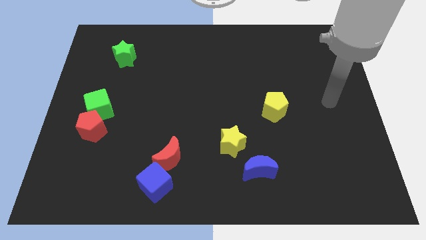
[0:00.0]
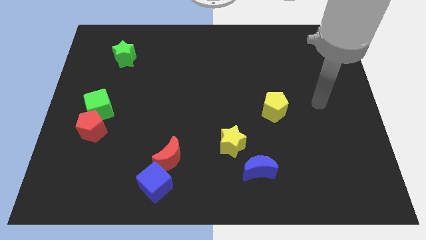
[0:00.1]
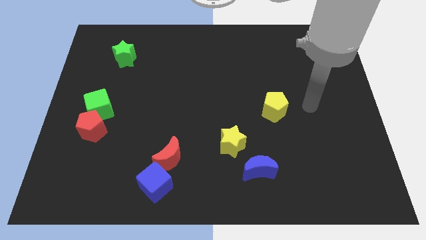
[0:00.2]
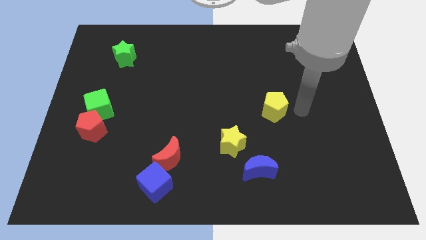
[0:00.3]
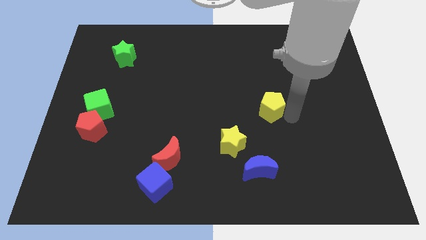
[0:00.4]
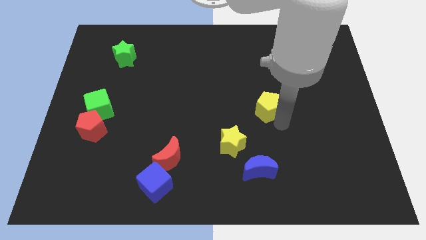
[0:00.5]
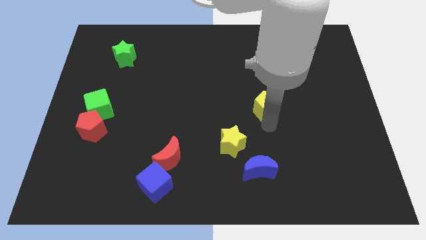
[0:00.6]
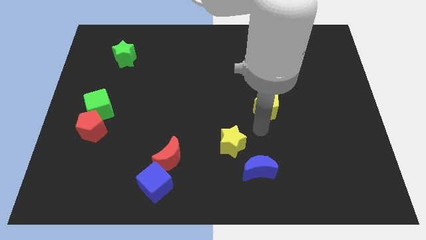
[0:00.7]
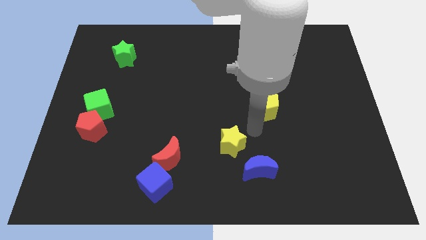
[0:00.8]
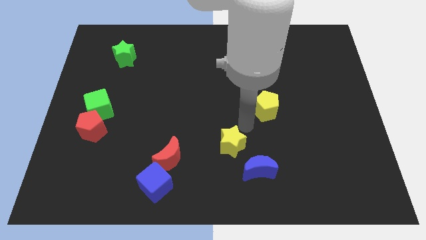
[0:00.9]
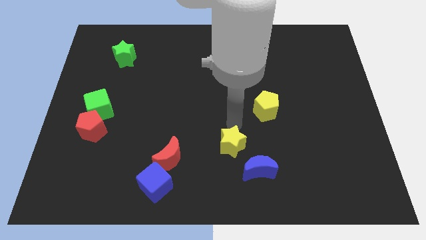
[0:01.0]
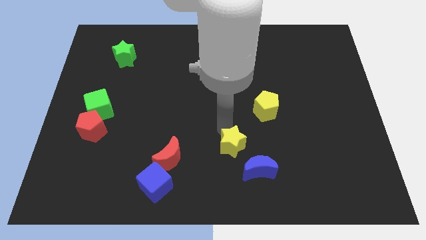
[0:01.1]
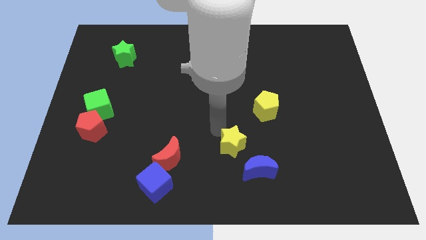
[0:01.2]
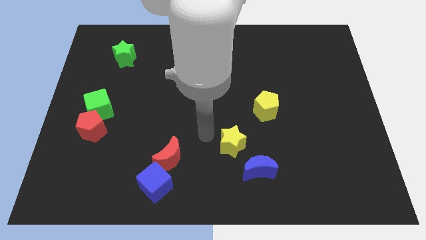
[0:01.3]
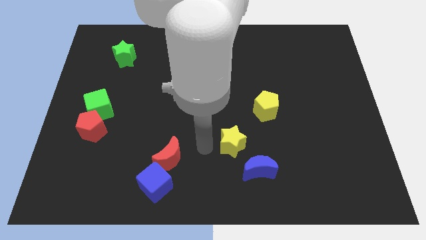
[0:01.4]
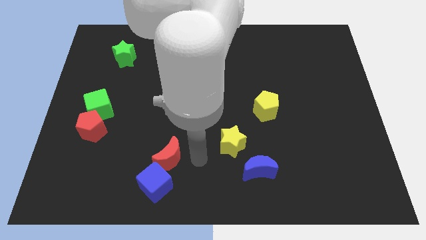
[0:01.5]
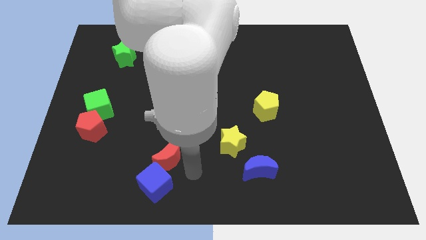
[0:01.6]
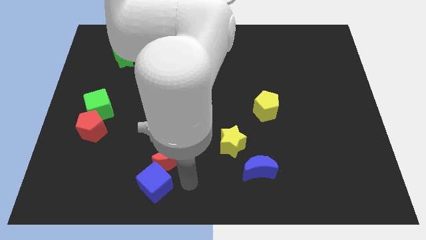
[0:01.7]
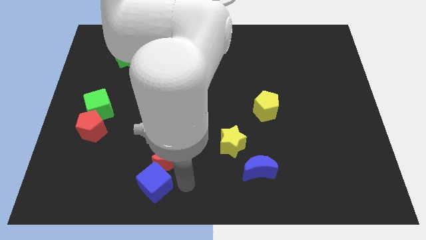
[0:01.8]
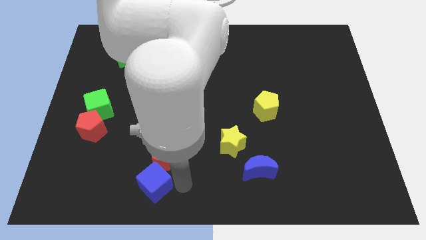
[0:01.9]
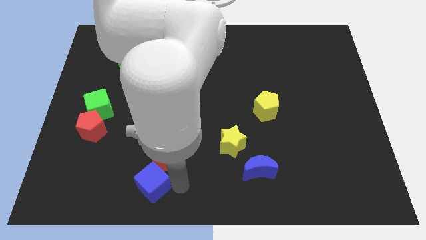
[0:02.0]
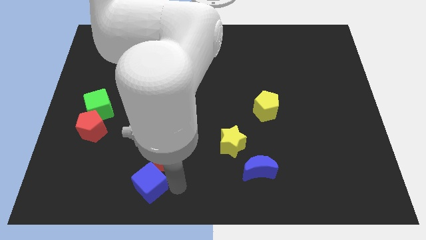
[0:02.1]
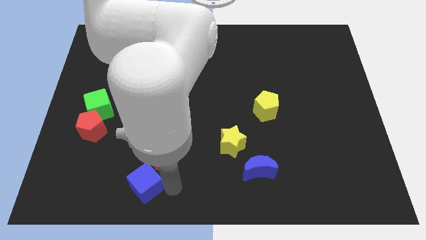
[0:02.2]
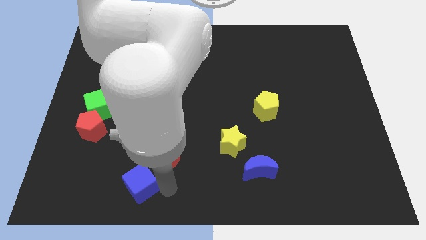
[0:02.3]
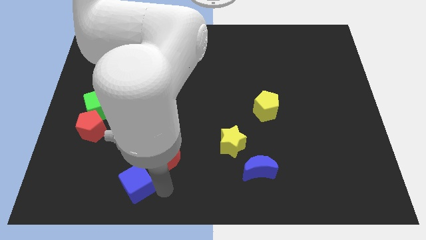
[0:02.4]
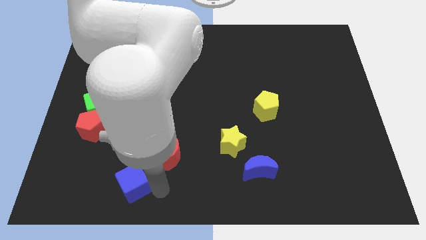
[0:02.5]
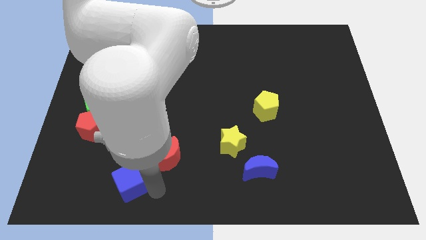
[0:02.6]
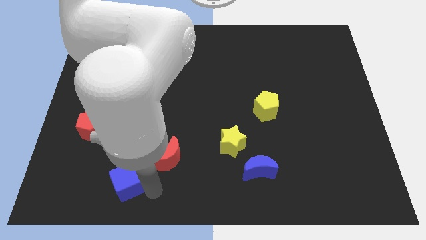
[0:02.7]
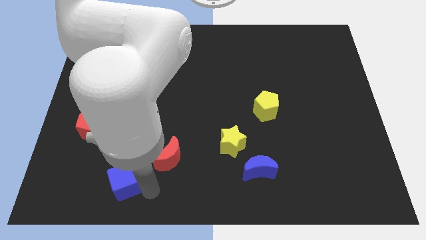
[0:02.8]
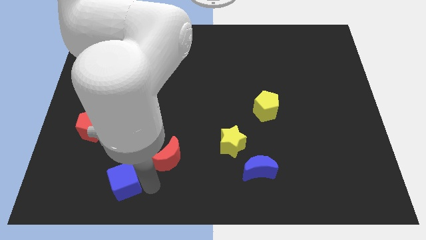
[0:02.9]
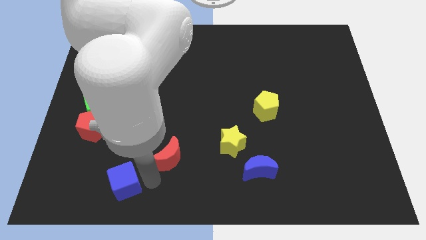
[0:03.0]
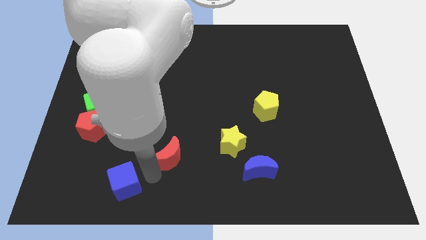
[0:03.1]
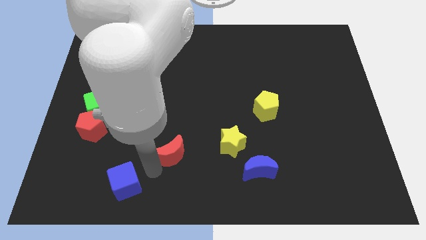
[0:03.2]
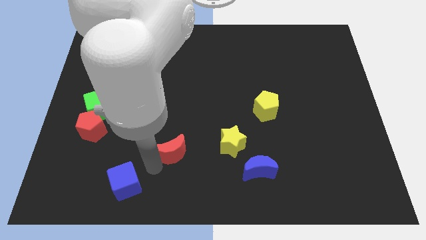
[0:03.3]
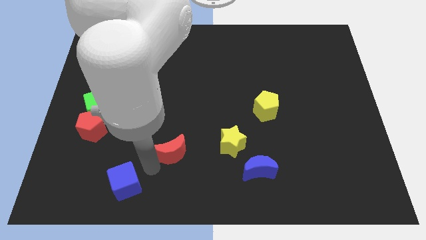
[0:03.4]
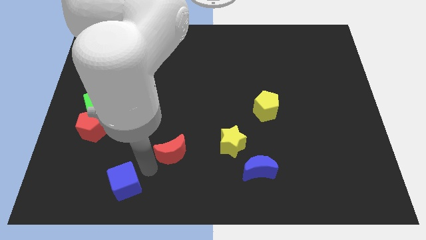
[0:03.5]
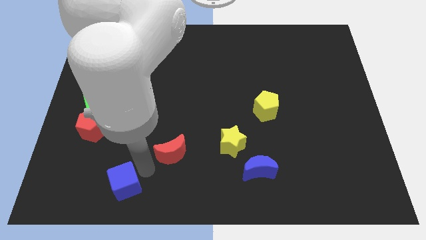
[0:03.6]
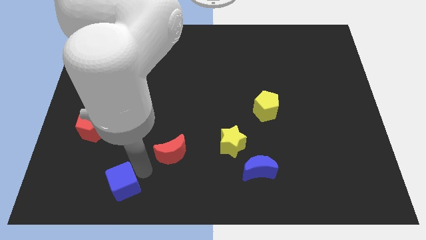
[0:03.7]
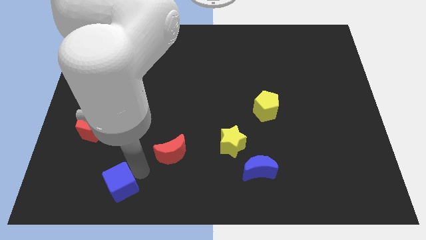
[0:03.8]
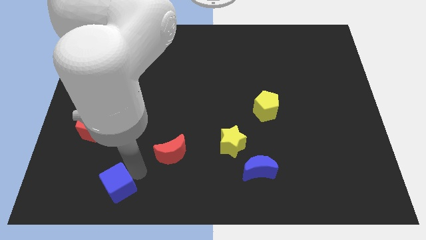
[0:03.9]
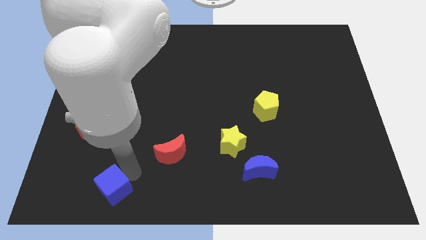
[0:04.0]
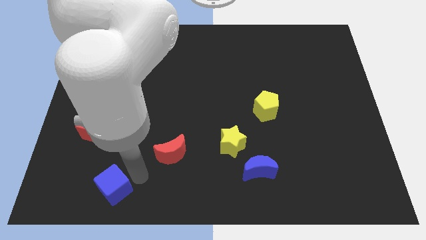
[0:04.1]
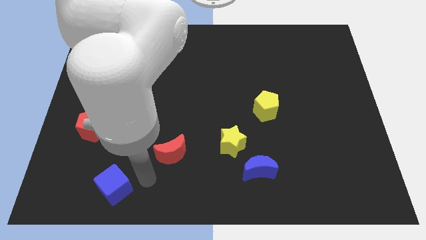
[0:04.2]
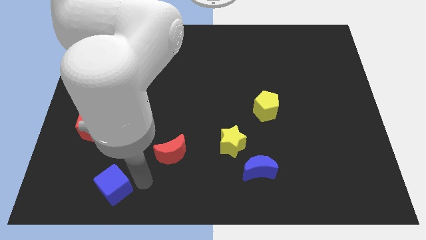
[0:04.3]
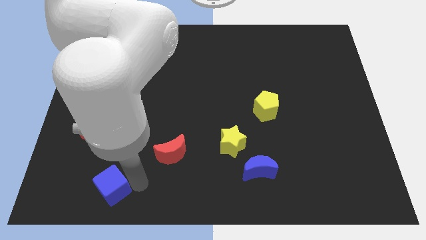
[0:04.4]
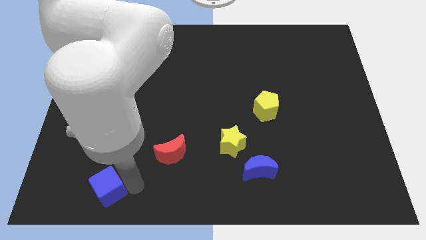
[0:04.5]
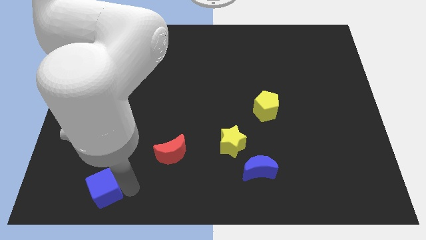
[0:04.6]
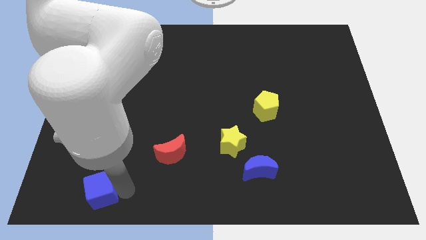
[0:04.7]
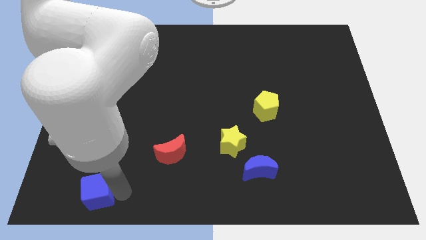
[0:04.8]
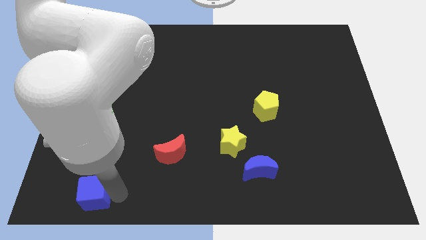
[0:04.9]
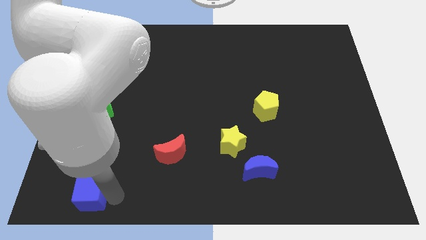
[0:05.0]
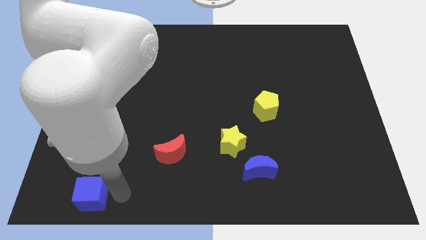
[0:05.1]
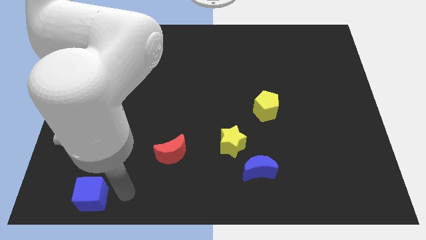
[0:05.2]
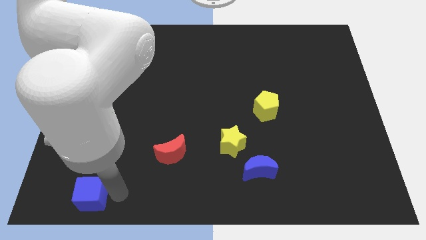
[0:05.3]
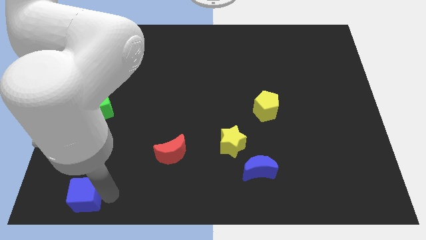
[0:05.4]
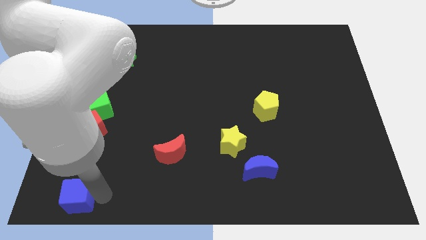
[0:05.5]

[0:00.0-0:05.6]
push the blue cube to the bottom left of the board
